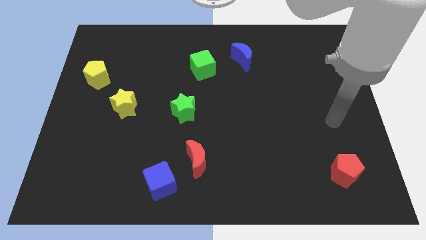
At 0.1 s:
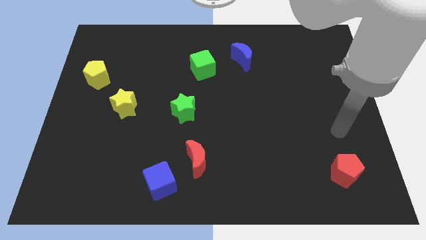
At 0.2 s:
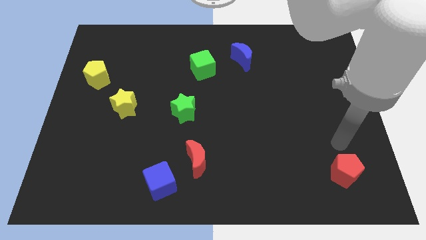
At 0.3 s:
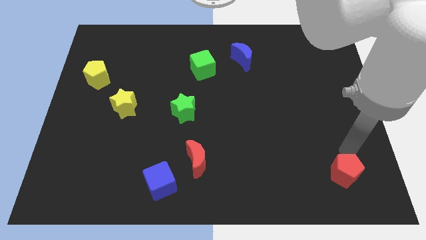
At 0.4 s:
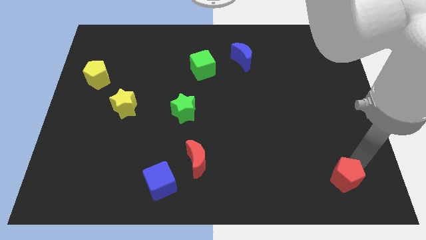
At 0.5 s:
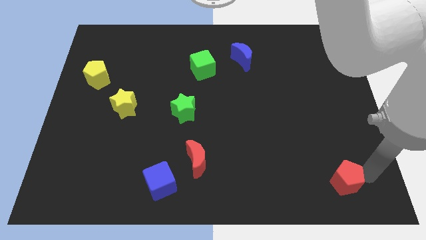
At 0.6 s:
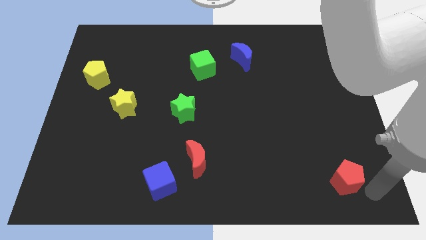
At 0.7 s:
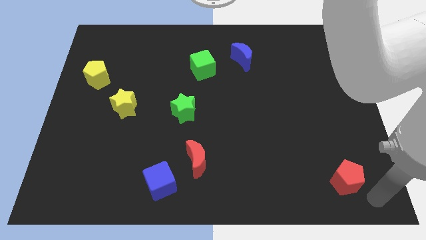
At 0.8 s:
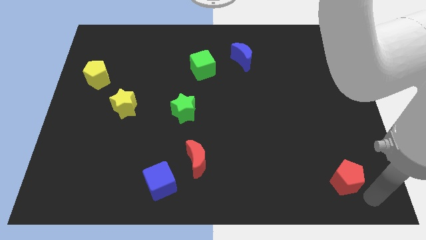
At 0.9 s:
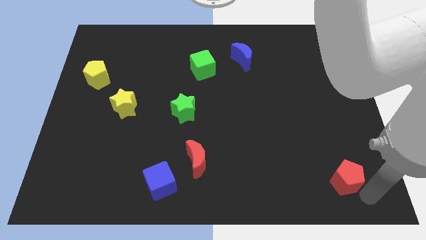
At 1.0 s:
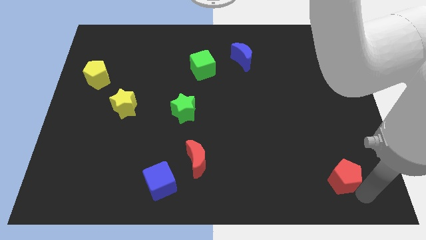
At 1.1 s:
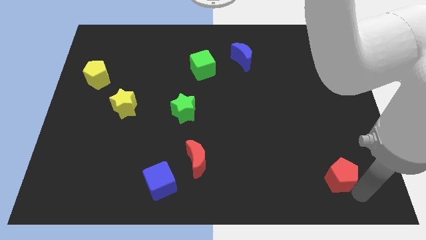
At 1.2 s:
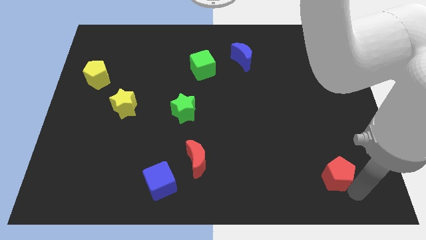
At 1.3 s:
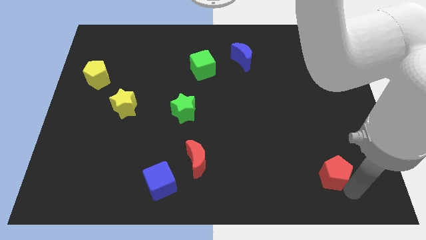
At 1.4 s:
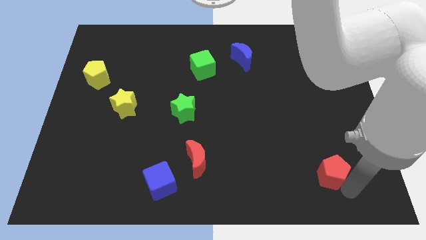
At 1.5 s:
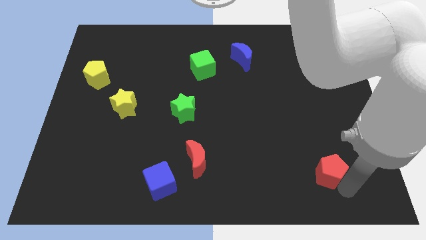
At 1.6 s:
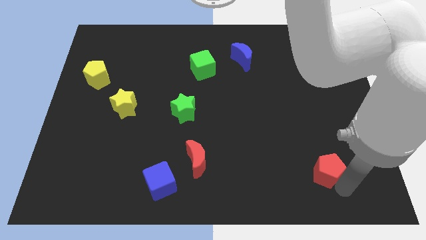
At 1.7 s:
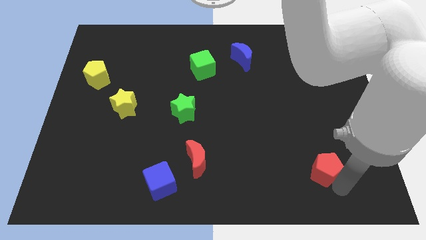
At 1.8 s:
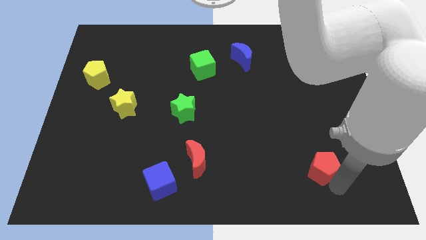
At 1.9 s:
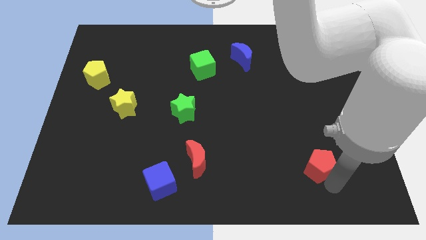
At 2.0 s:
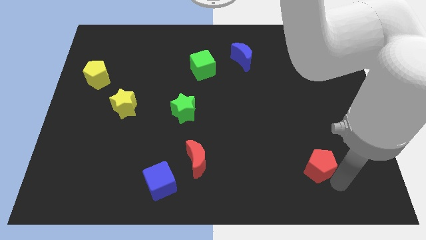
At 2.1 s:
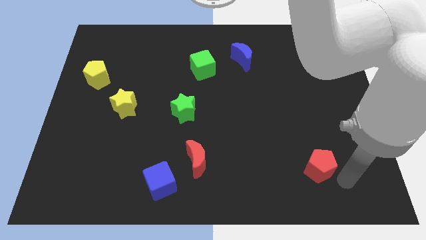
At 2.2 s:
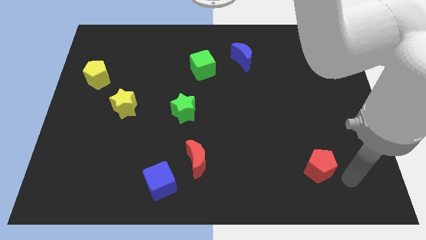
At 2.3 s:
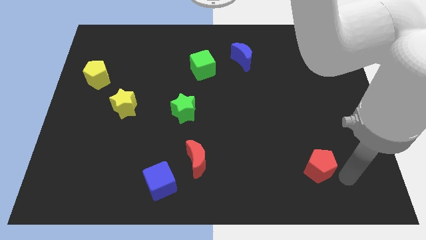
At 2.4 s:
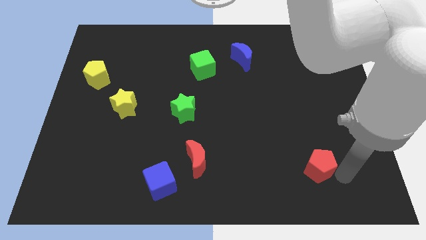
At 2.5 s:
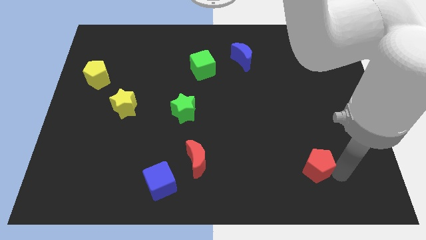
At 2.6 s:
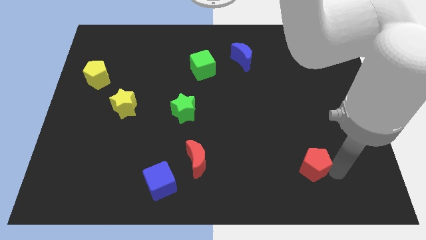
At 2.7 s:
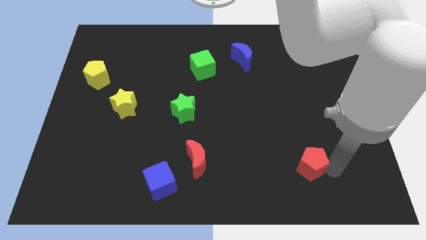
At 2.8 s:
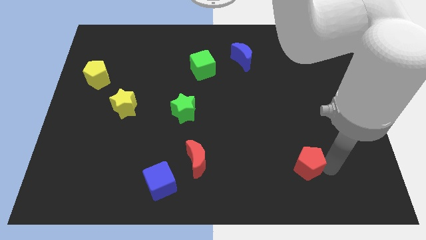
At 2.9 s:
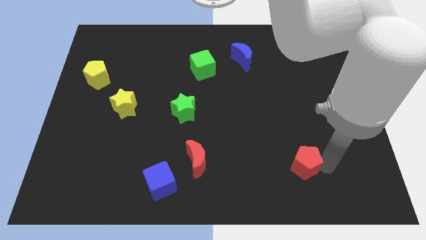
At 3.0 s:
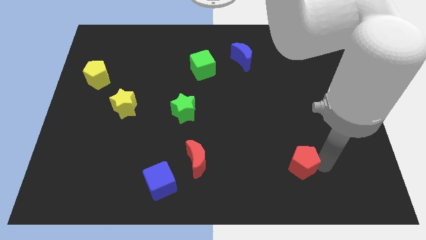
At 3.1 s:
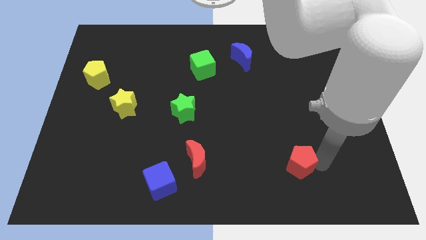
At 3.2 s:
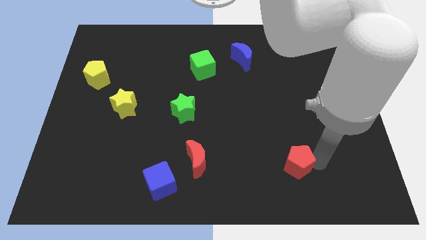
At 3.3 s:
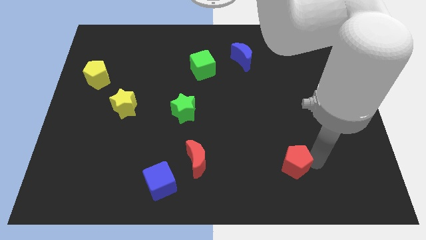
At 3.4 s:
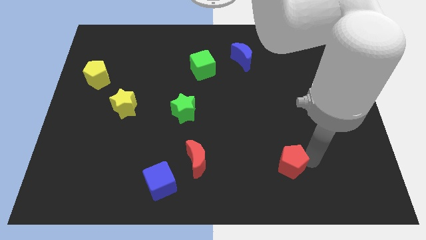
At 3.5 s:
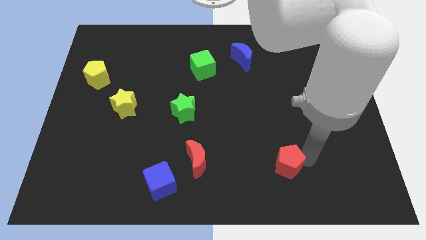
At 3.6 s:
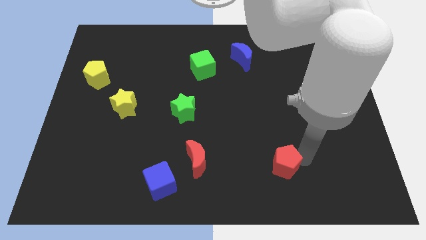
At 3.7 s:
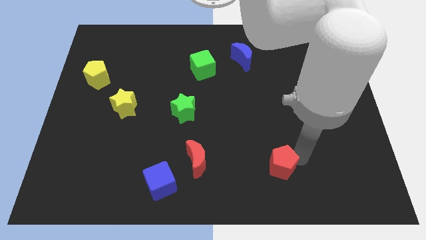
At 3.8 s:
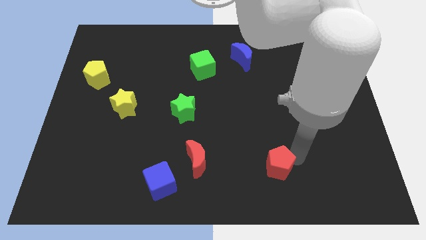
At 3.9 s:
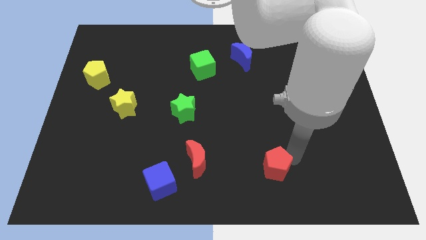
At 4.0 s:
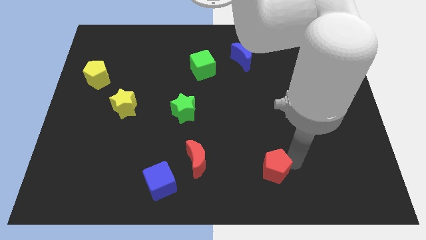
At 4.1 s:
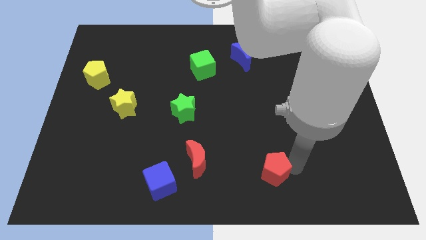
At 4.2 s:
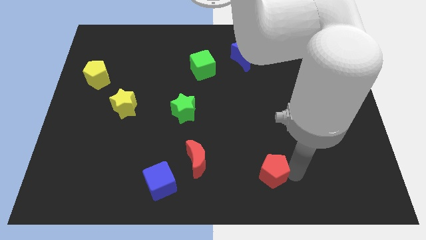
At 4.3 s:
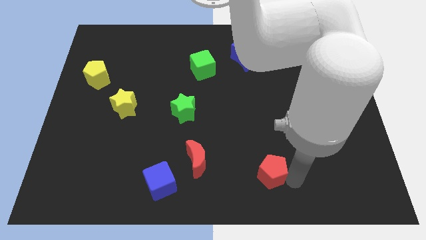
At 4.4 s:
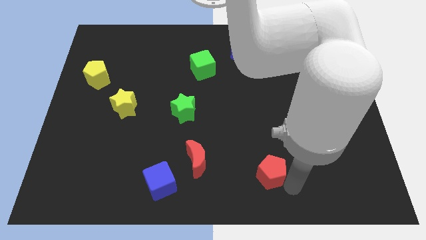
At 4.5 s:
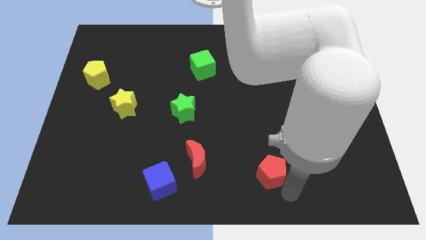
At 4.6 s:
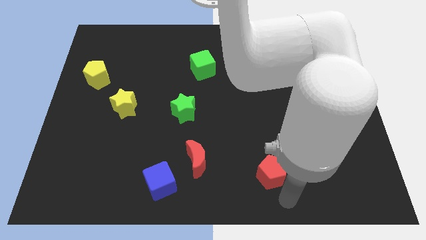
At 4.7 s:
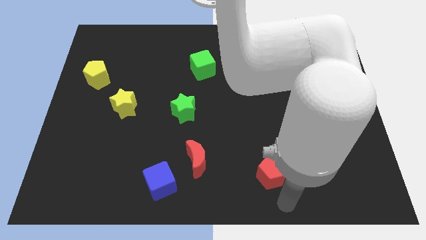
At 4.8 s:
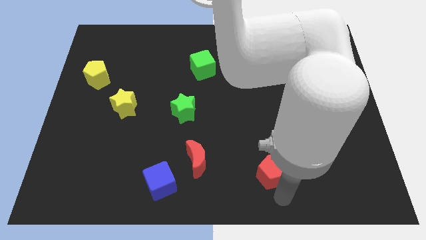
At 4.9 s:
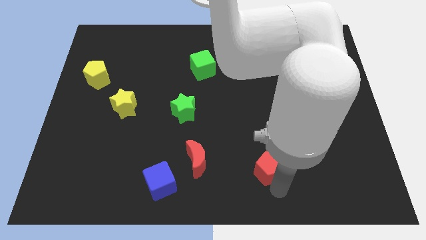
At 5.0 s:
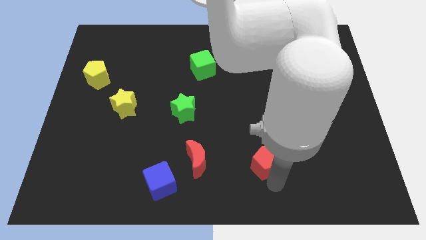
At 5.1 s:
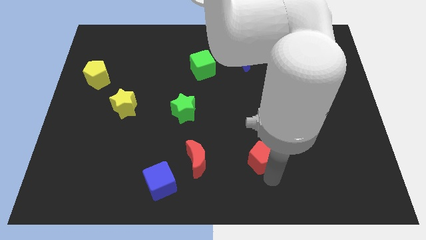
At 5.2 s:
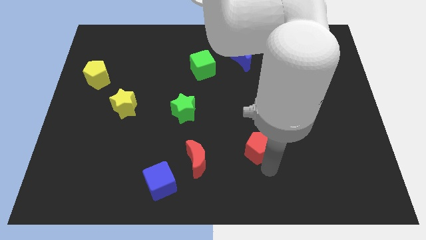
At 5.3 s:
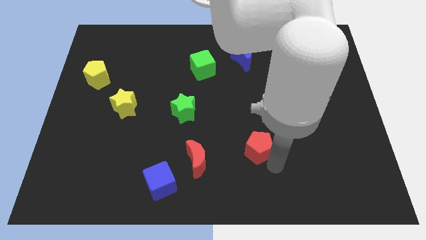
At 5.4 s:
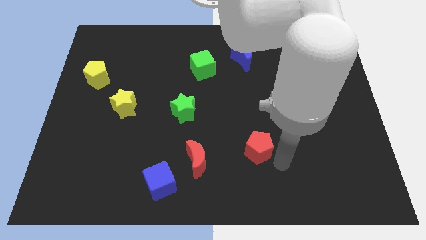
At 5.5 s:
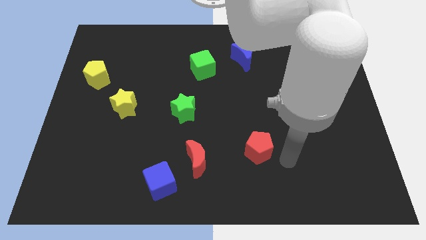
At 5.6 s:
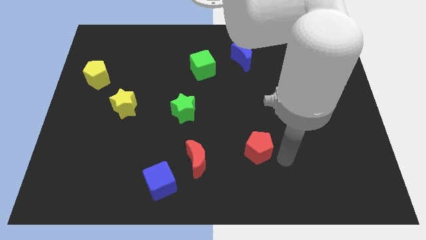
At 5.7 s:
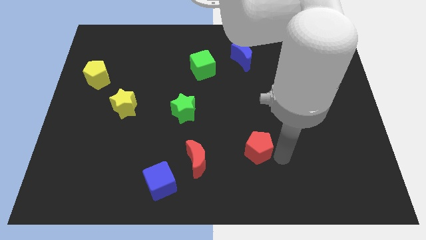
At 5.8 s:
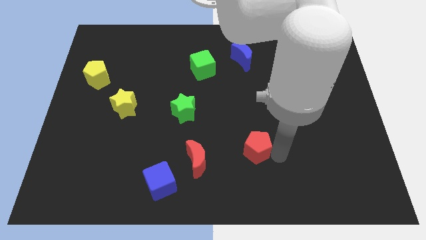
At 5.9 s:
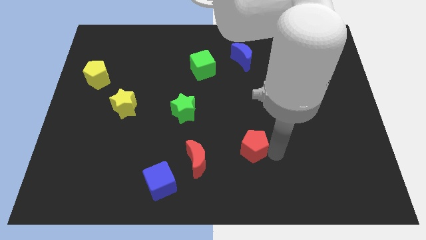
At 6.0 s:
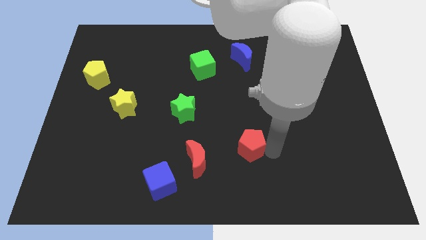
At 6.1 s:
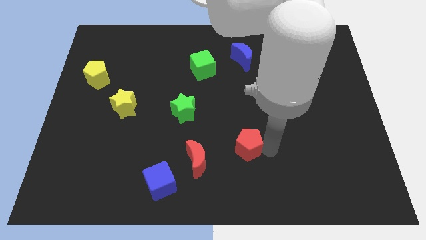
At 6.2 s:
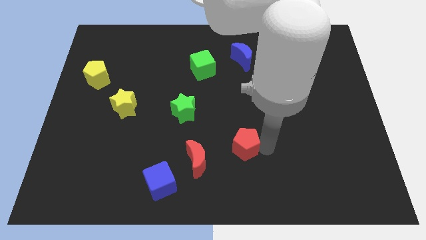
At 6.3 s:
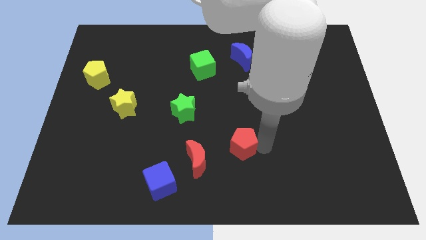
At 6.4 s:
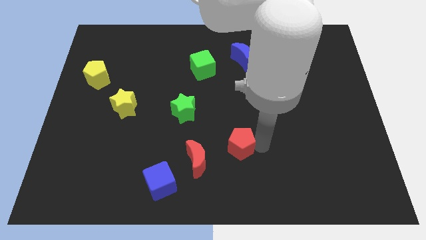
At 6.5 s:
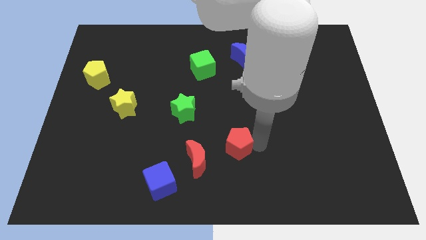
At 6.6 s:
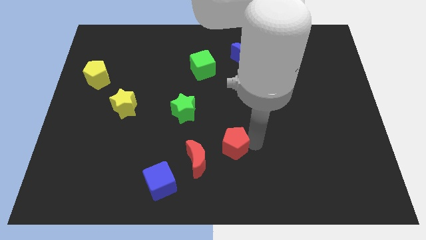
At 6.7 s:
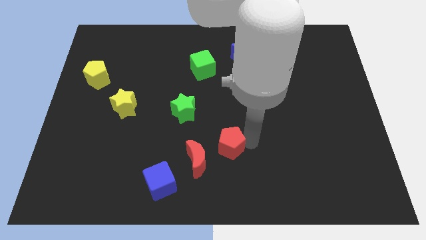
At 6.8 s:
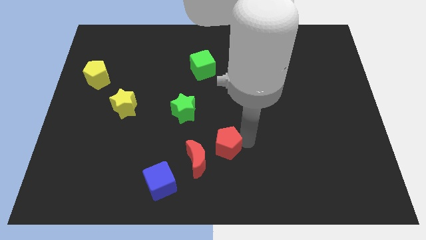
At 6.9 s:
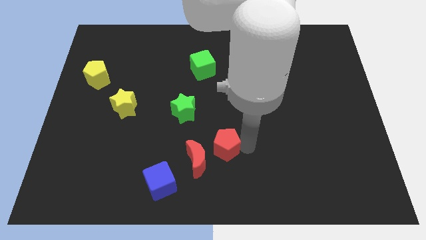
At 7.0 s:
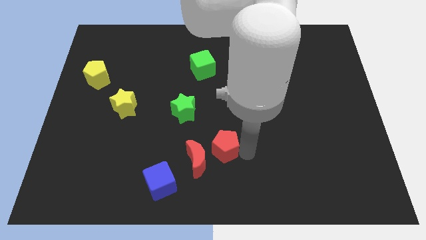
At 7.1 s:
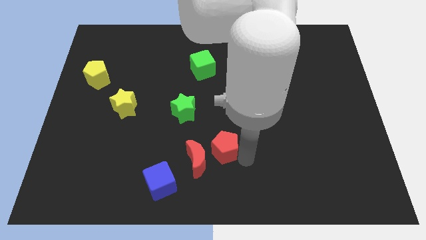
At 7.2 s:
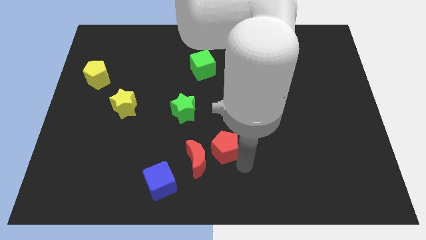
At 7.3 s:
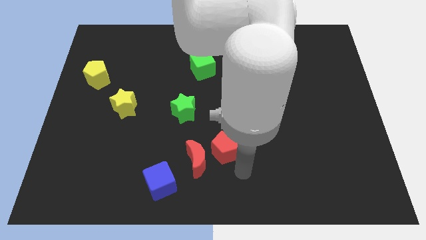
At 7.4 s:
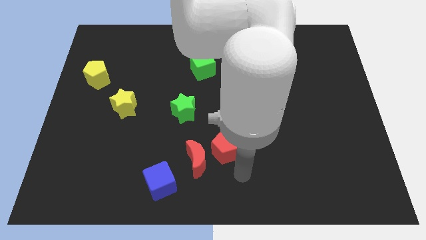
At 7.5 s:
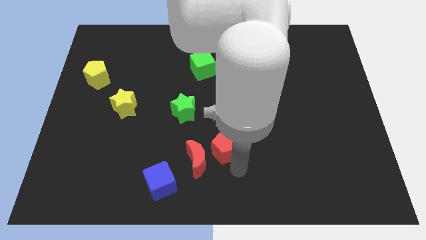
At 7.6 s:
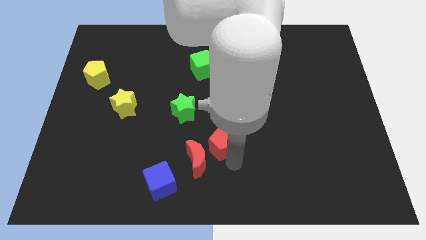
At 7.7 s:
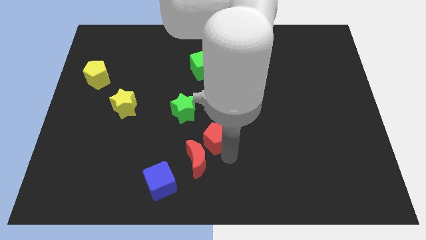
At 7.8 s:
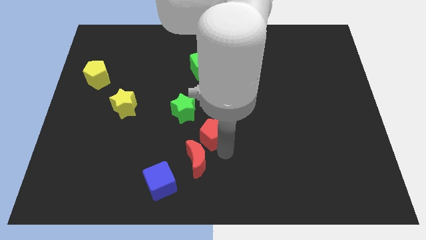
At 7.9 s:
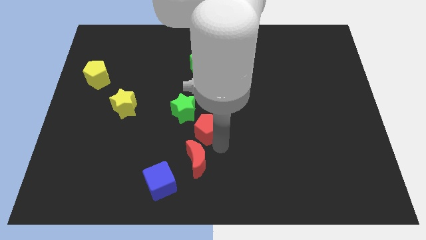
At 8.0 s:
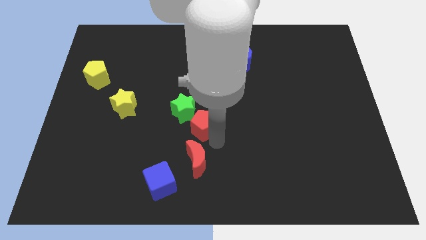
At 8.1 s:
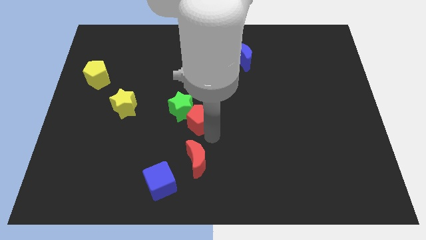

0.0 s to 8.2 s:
put the red pentagon towards the green star
